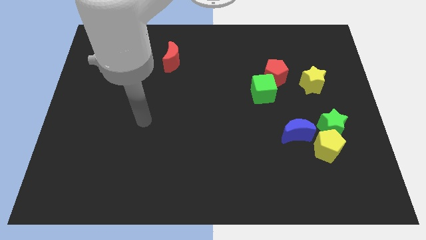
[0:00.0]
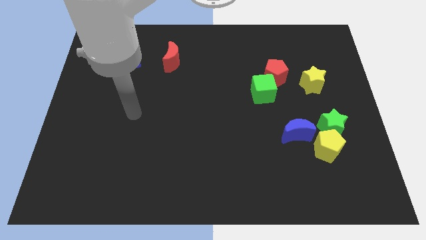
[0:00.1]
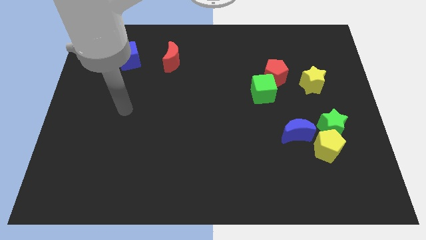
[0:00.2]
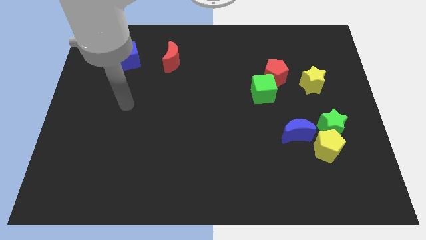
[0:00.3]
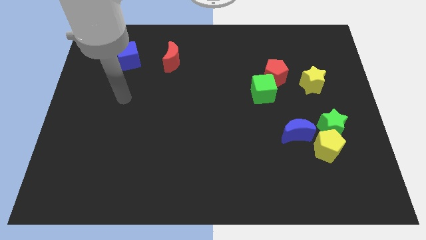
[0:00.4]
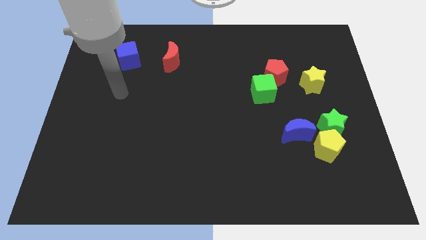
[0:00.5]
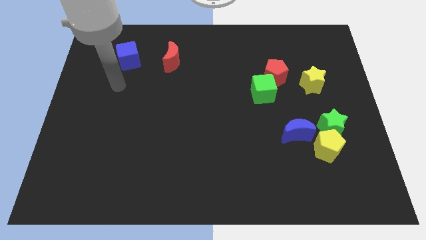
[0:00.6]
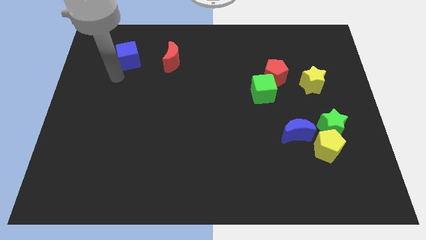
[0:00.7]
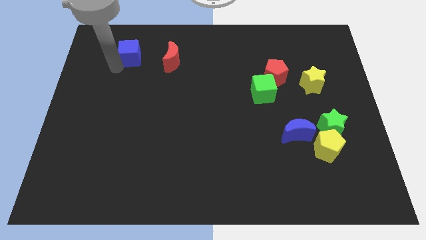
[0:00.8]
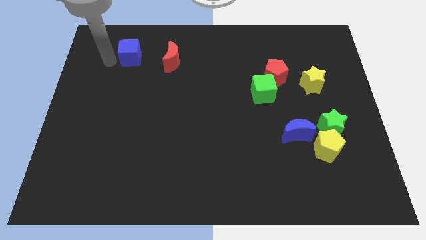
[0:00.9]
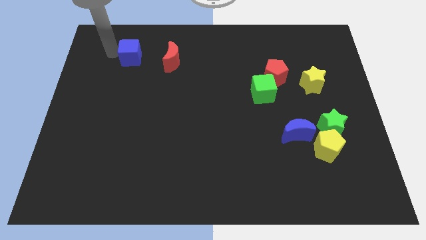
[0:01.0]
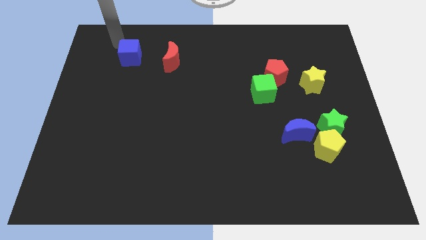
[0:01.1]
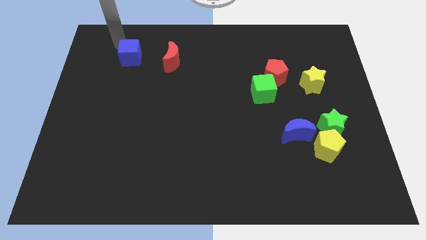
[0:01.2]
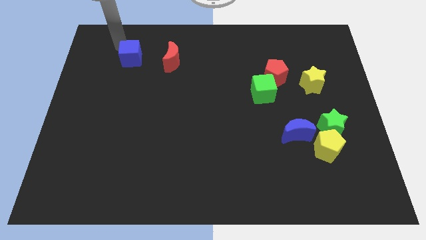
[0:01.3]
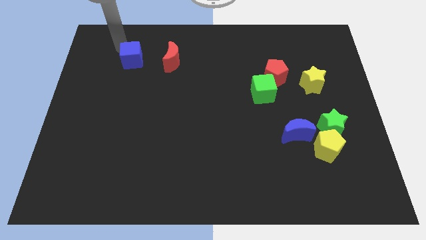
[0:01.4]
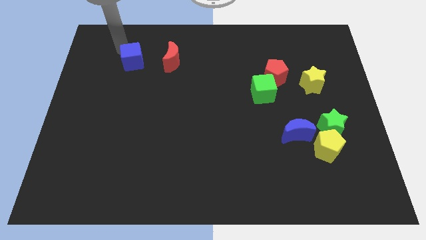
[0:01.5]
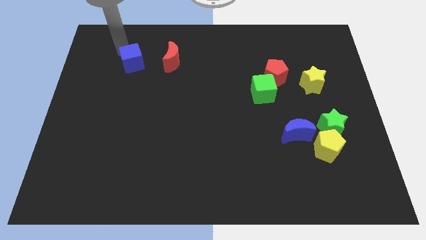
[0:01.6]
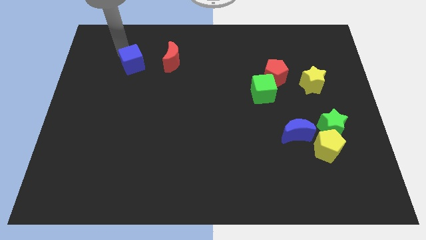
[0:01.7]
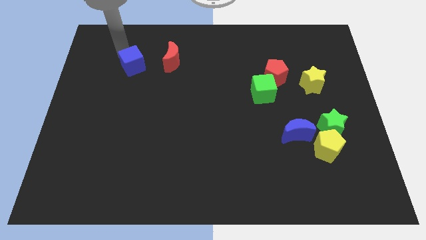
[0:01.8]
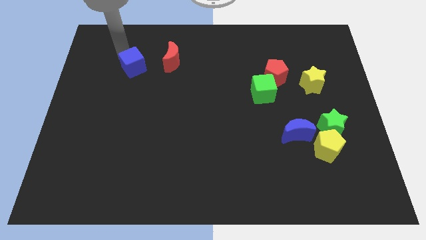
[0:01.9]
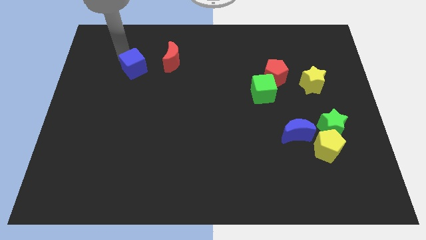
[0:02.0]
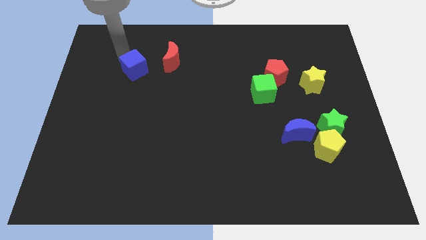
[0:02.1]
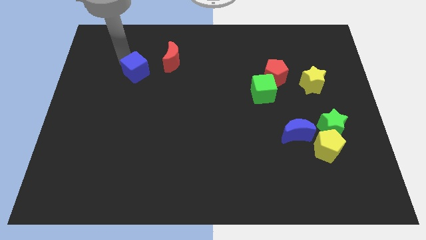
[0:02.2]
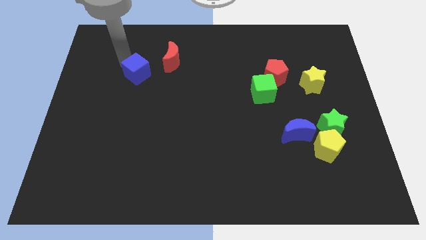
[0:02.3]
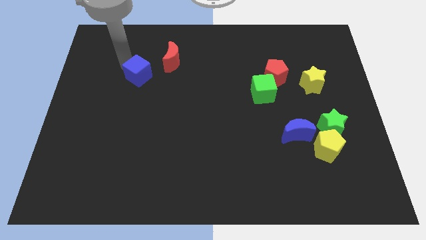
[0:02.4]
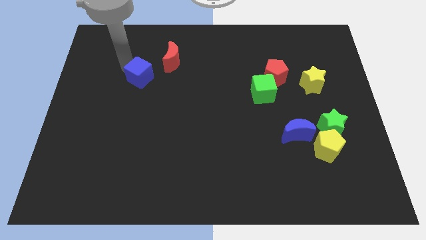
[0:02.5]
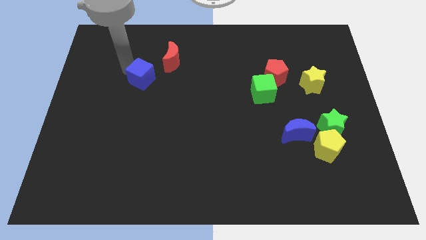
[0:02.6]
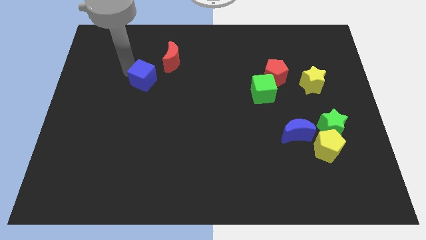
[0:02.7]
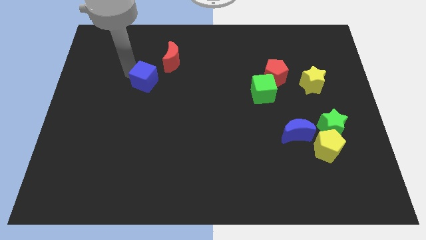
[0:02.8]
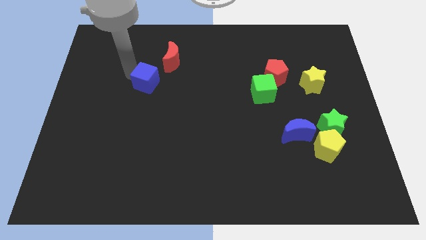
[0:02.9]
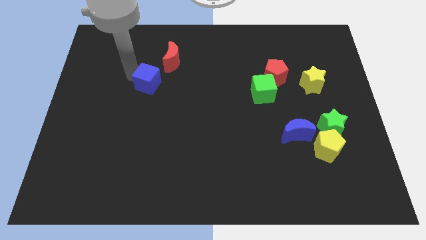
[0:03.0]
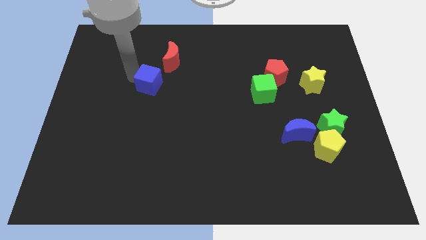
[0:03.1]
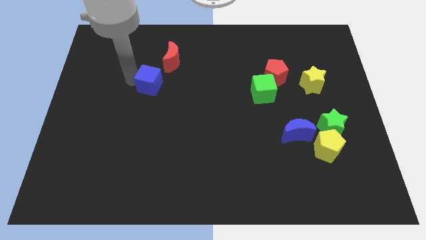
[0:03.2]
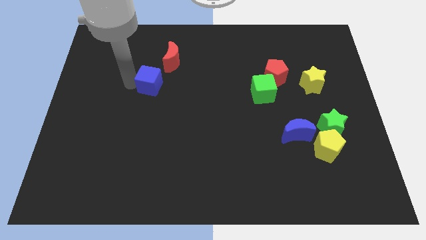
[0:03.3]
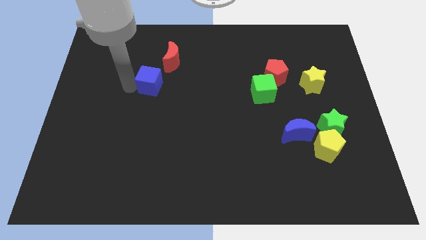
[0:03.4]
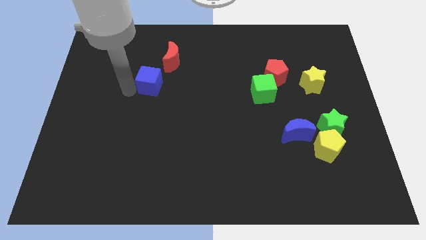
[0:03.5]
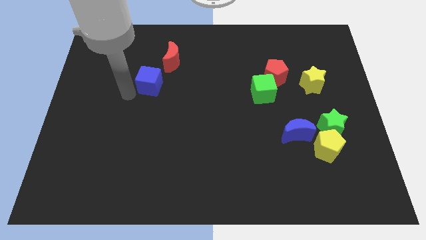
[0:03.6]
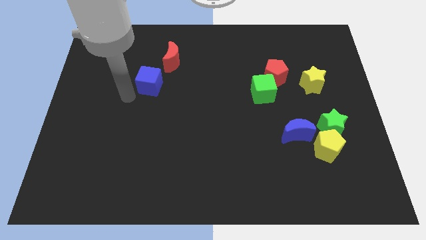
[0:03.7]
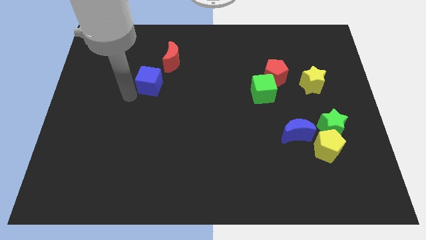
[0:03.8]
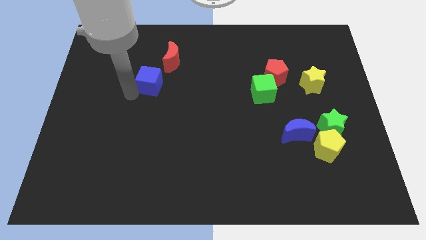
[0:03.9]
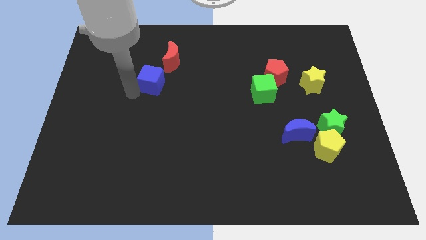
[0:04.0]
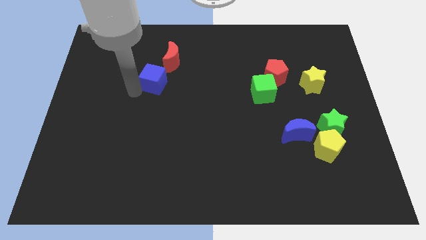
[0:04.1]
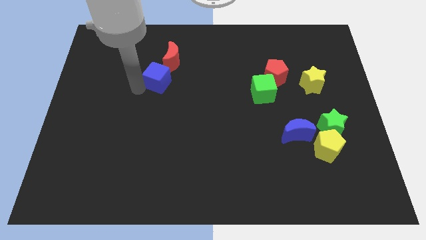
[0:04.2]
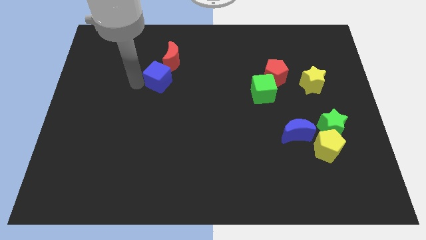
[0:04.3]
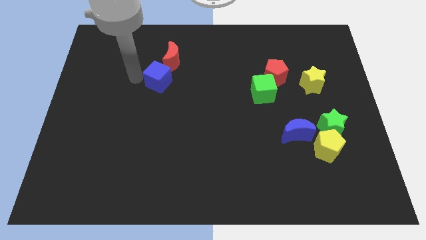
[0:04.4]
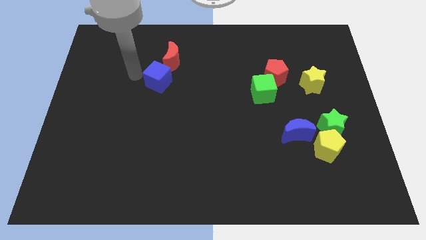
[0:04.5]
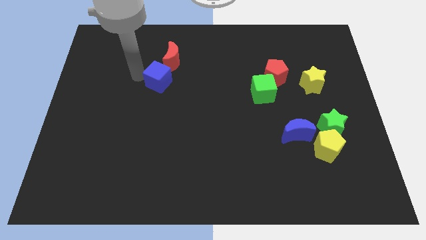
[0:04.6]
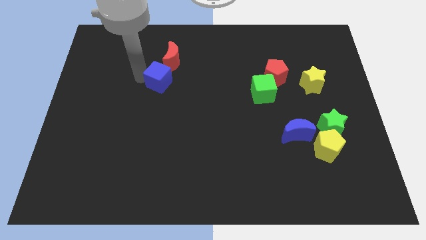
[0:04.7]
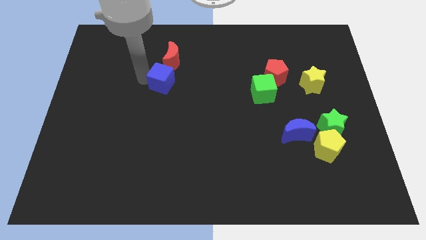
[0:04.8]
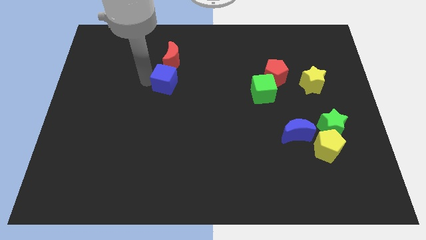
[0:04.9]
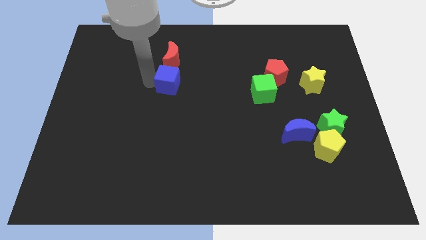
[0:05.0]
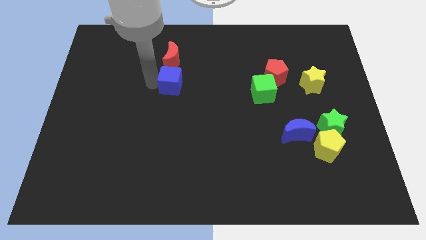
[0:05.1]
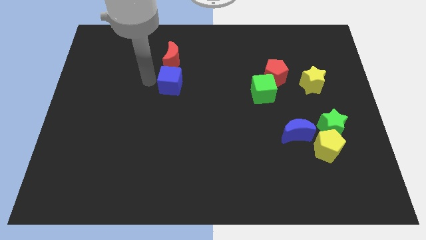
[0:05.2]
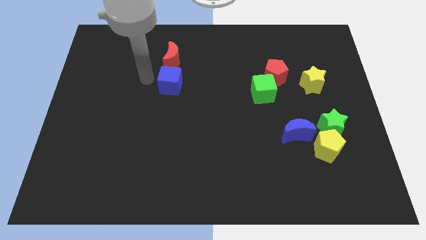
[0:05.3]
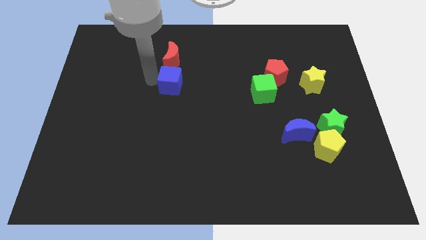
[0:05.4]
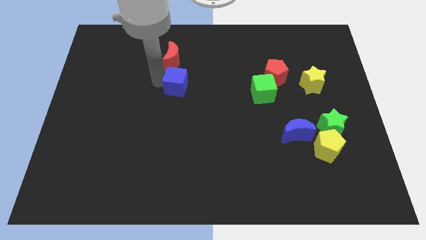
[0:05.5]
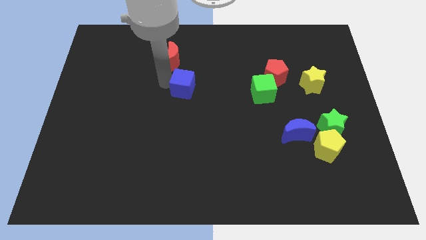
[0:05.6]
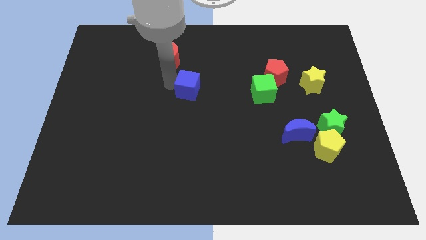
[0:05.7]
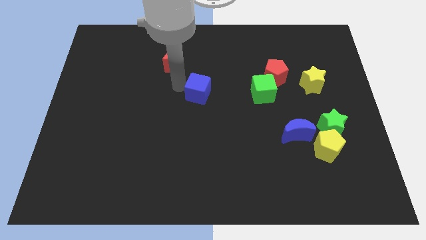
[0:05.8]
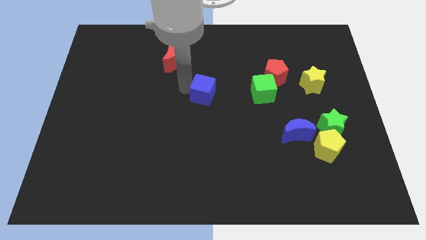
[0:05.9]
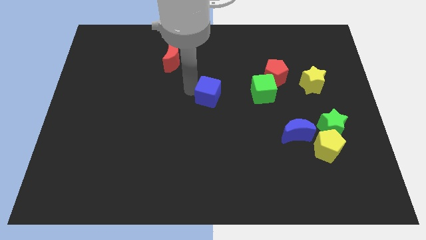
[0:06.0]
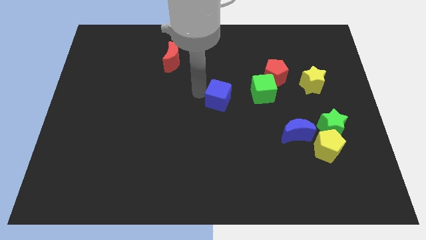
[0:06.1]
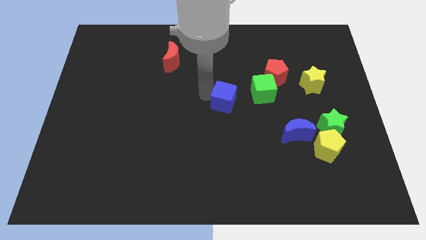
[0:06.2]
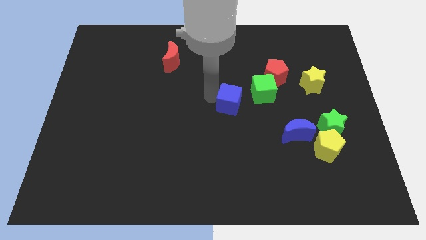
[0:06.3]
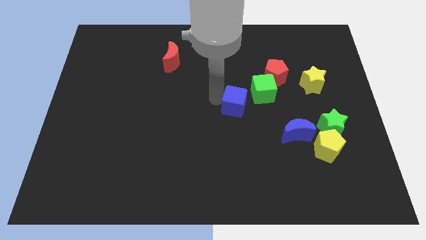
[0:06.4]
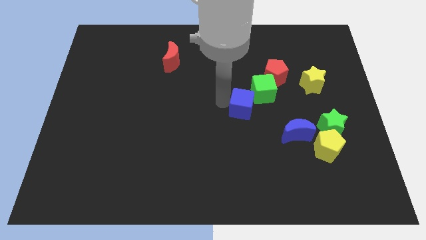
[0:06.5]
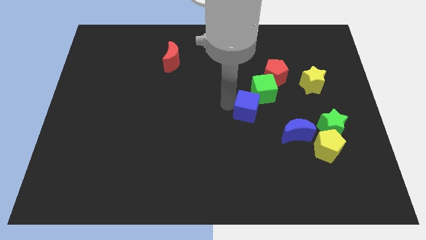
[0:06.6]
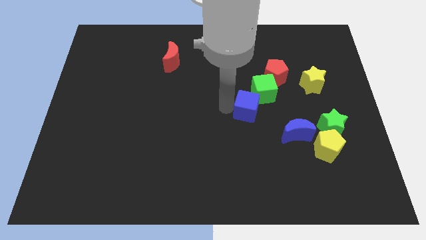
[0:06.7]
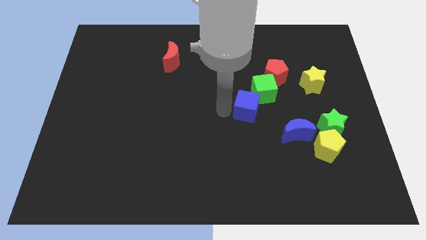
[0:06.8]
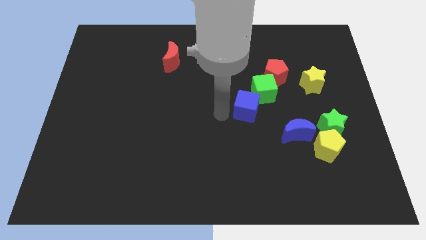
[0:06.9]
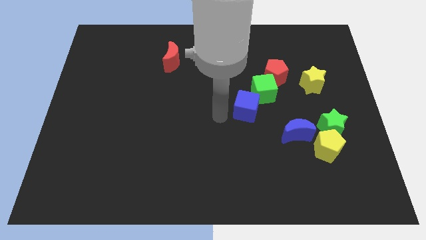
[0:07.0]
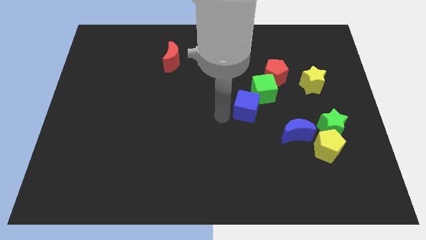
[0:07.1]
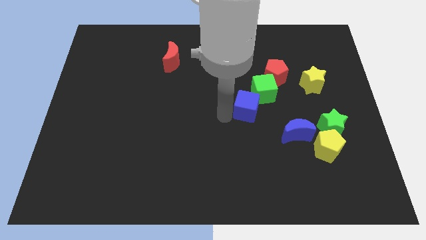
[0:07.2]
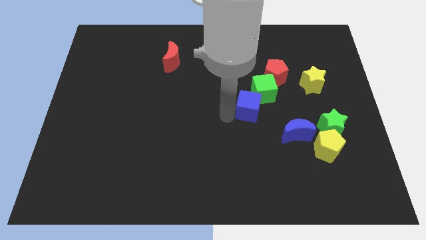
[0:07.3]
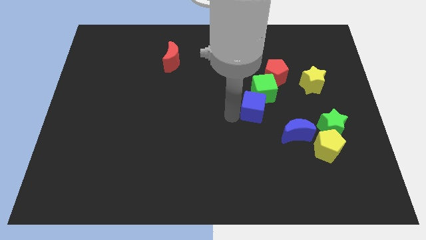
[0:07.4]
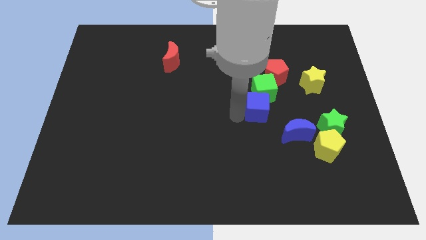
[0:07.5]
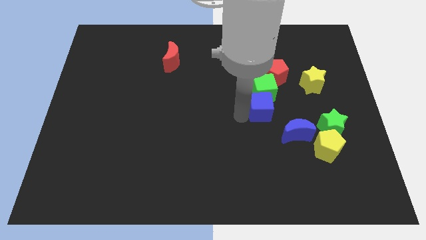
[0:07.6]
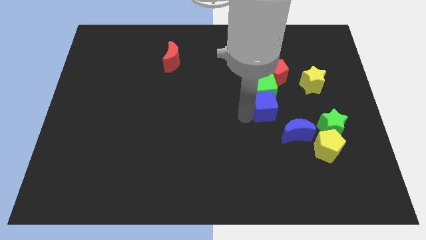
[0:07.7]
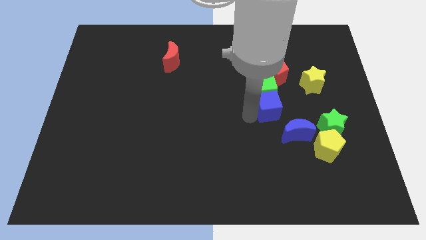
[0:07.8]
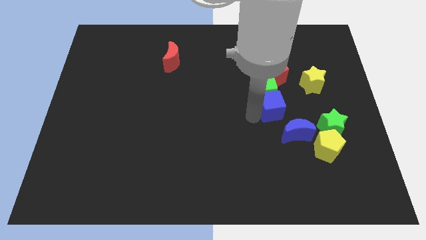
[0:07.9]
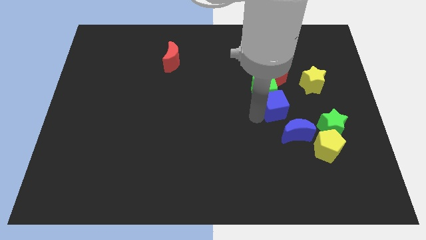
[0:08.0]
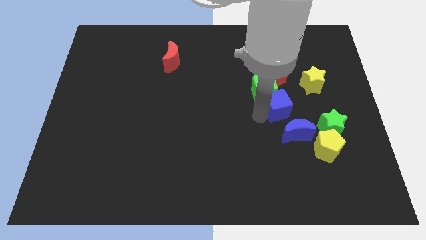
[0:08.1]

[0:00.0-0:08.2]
put the blue cube diagonally down and to the left of the yellow star
